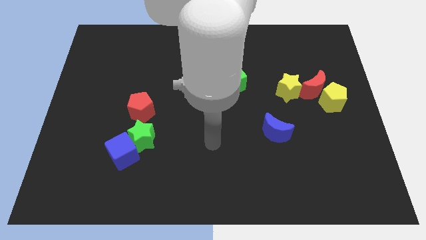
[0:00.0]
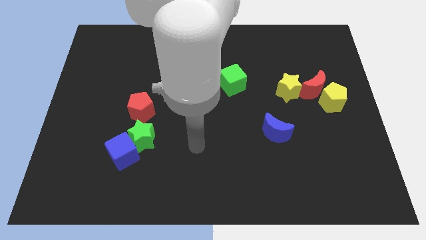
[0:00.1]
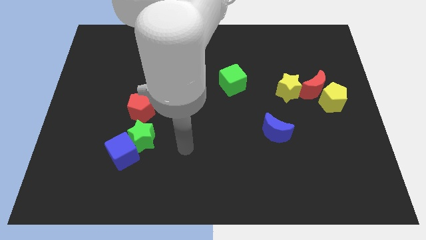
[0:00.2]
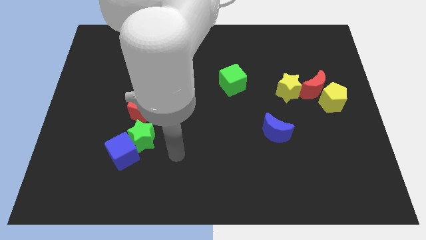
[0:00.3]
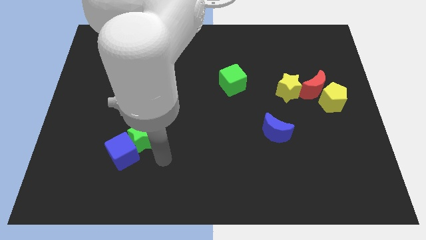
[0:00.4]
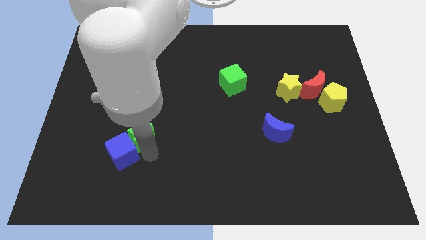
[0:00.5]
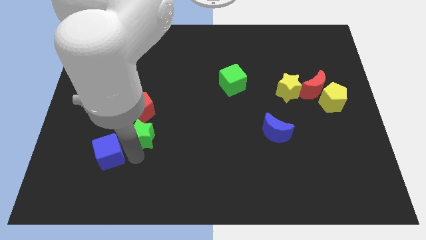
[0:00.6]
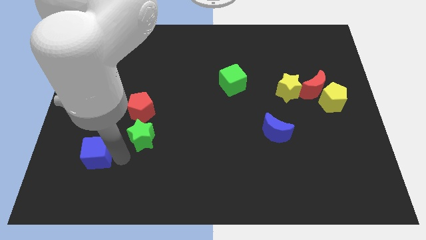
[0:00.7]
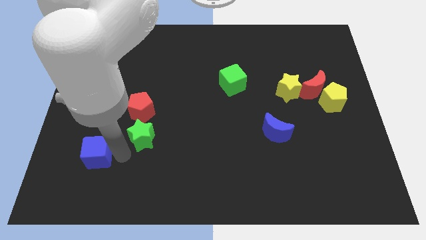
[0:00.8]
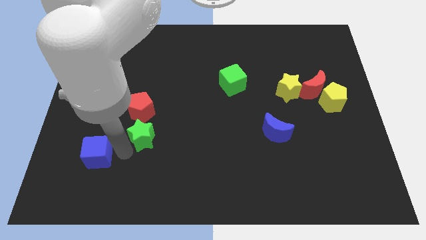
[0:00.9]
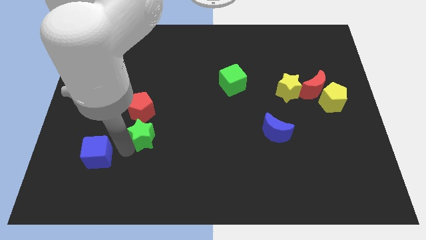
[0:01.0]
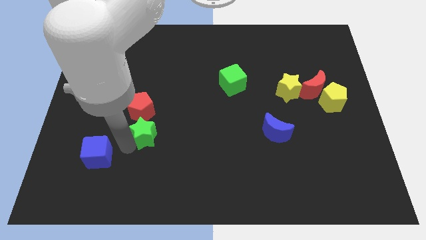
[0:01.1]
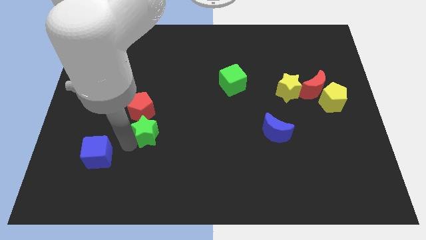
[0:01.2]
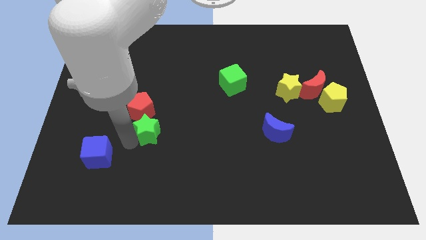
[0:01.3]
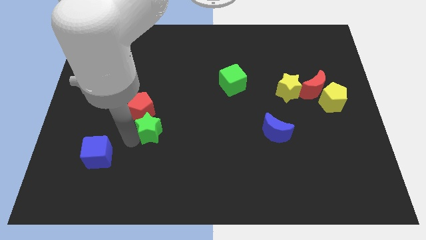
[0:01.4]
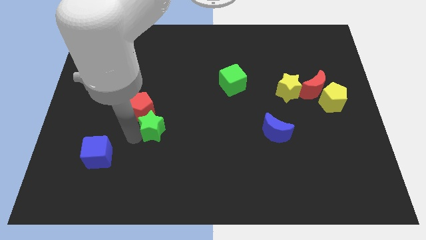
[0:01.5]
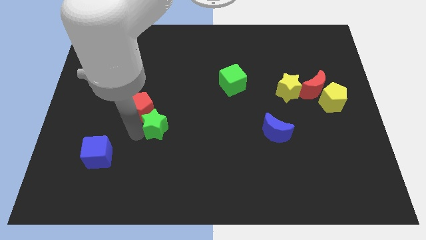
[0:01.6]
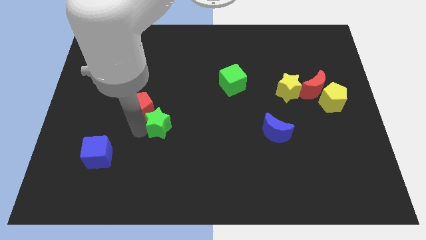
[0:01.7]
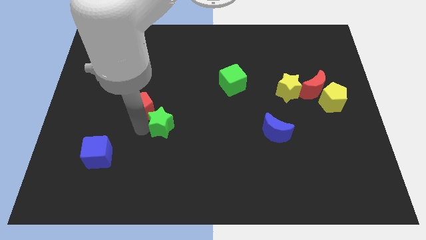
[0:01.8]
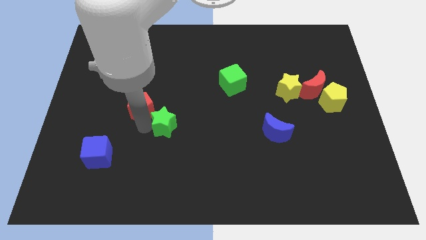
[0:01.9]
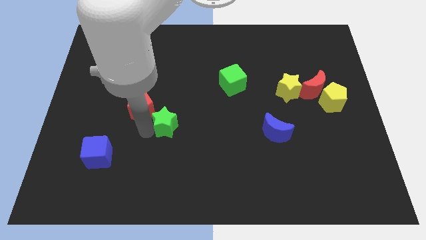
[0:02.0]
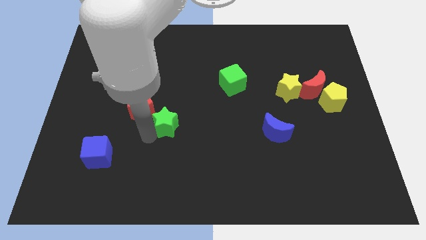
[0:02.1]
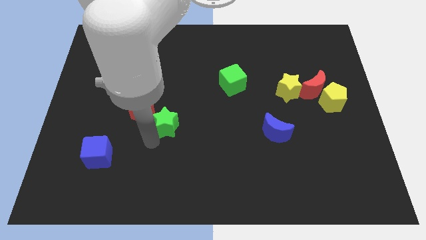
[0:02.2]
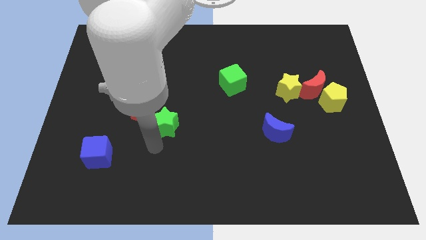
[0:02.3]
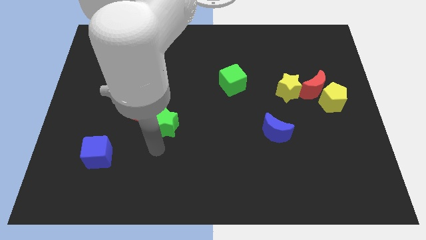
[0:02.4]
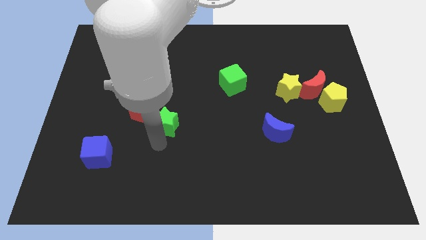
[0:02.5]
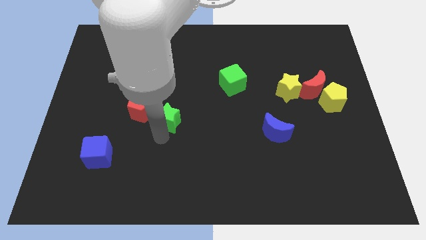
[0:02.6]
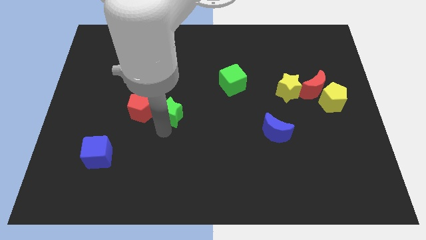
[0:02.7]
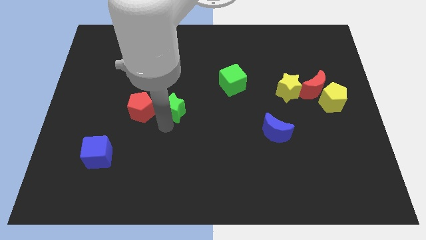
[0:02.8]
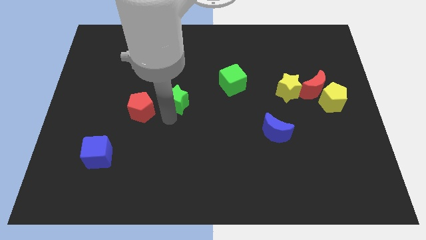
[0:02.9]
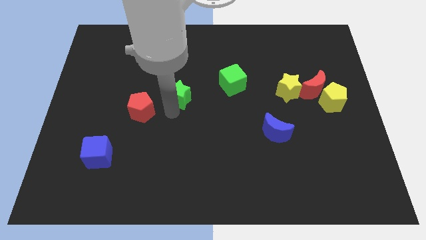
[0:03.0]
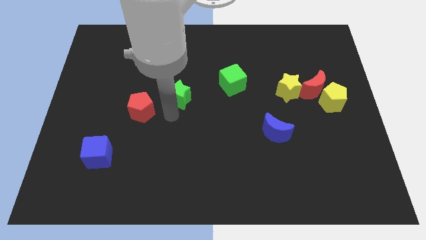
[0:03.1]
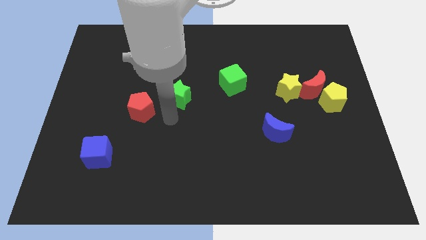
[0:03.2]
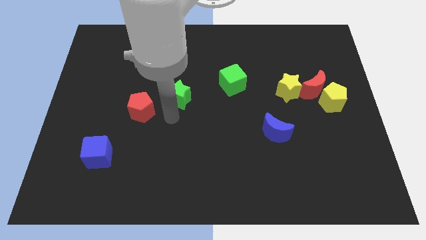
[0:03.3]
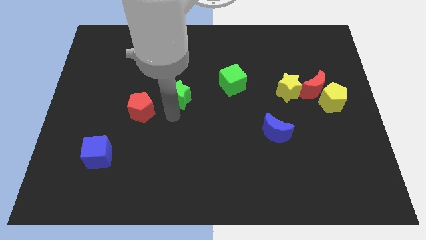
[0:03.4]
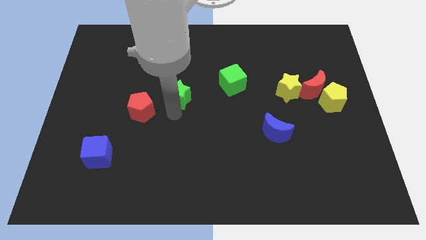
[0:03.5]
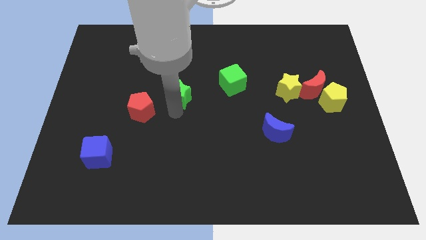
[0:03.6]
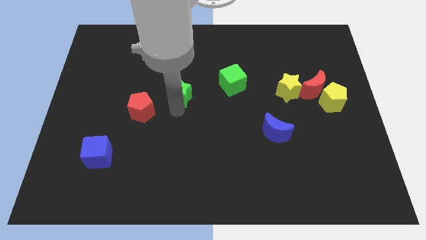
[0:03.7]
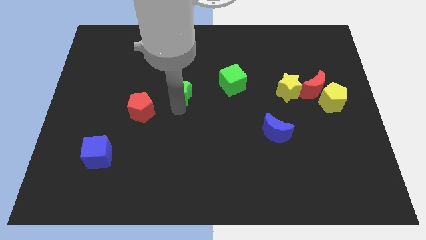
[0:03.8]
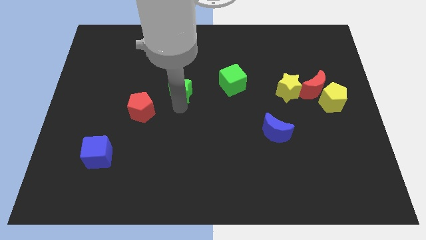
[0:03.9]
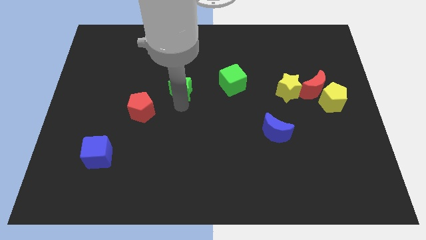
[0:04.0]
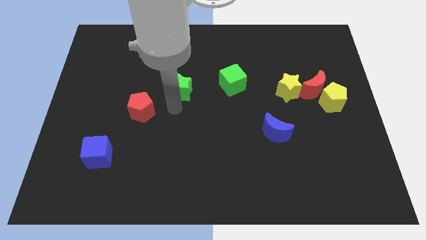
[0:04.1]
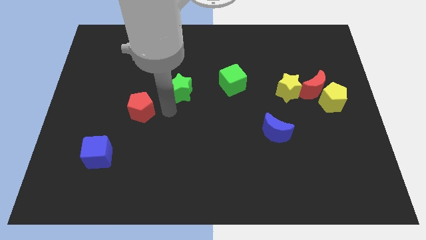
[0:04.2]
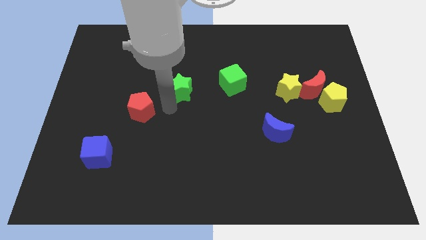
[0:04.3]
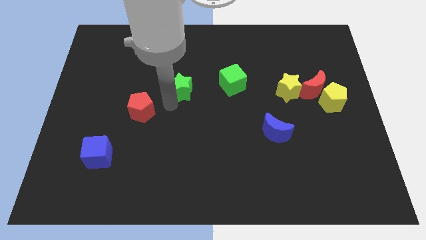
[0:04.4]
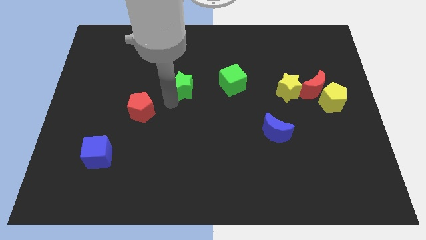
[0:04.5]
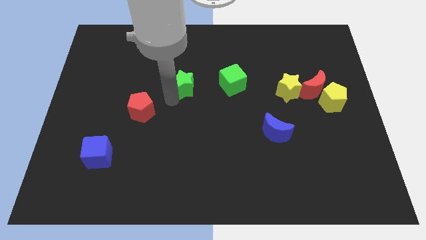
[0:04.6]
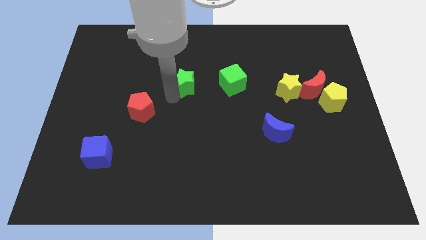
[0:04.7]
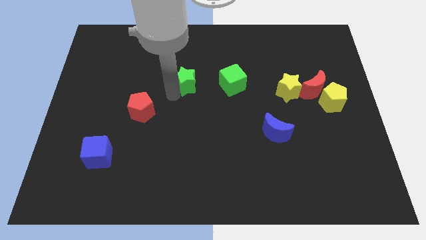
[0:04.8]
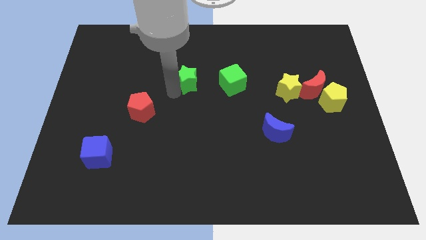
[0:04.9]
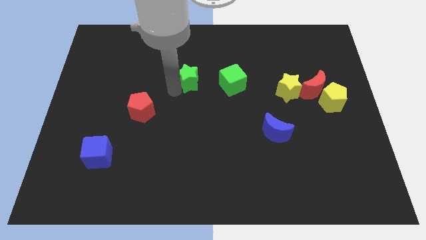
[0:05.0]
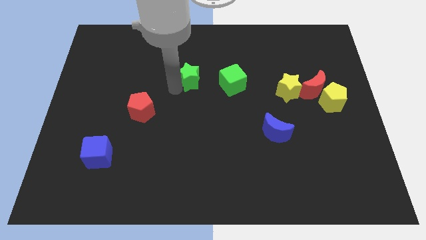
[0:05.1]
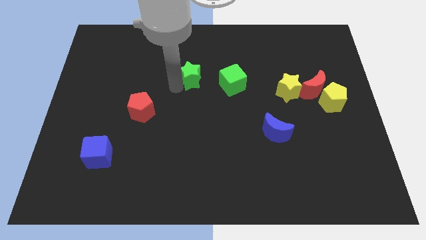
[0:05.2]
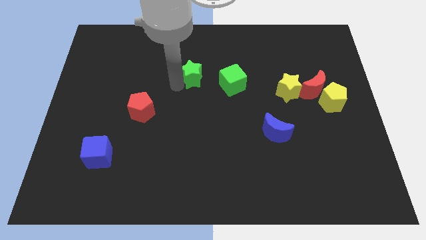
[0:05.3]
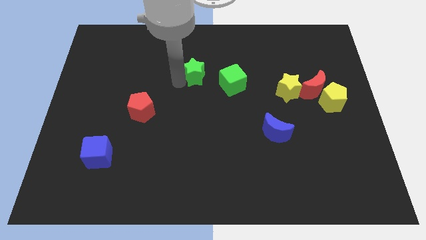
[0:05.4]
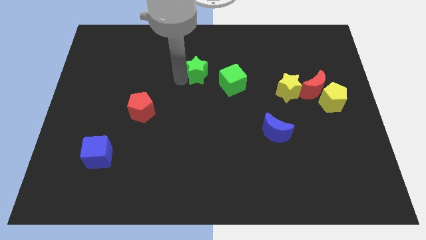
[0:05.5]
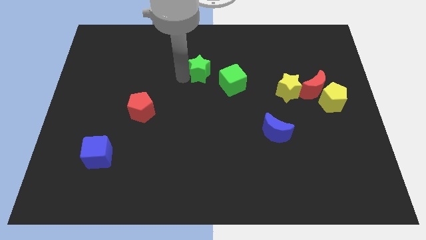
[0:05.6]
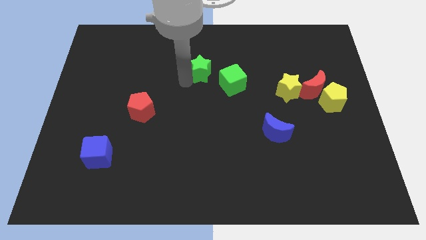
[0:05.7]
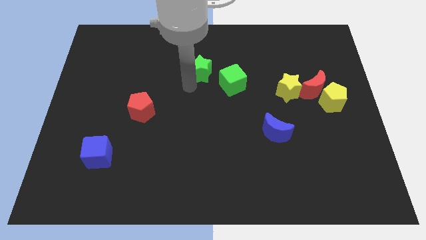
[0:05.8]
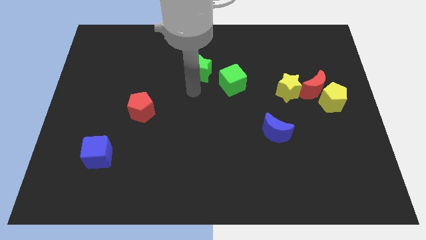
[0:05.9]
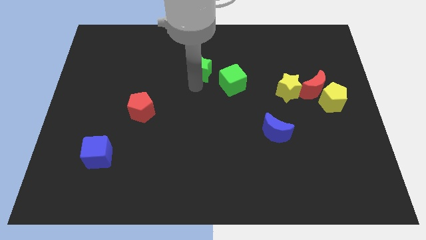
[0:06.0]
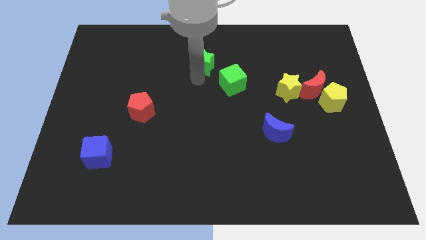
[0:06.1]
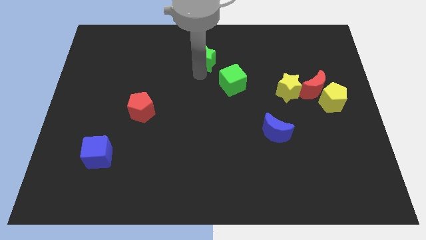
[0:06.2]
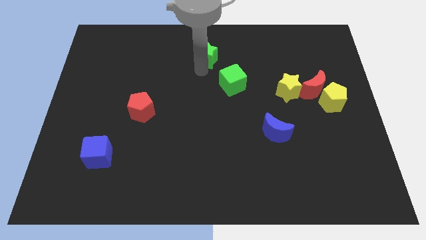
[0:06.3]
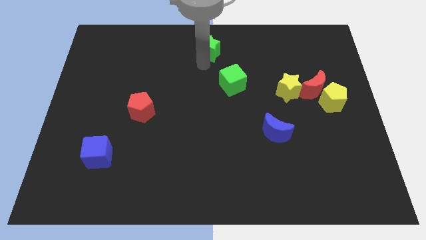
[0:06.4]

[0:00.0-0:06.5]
put the green star to the top
